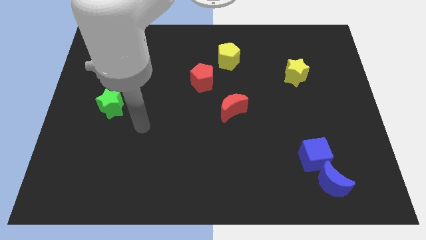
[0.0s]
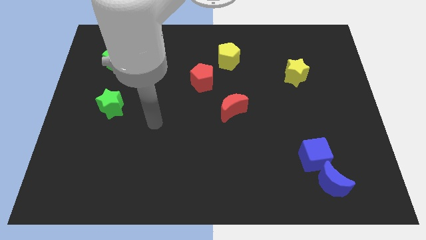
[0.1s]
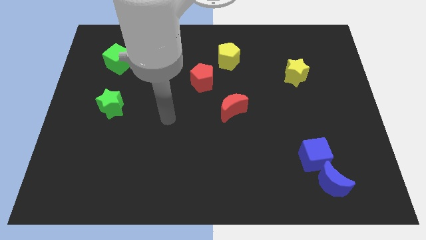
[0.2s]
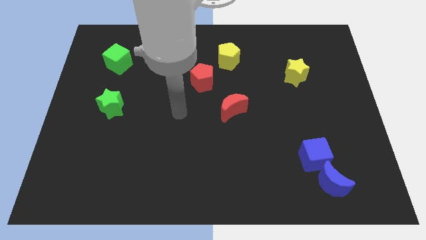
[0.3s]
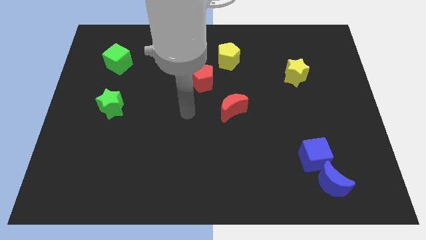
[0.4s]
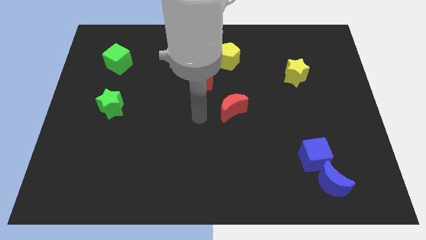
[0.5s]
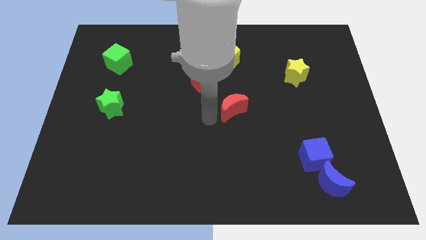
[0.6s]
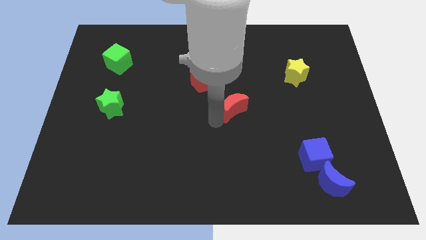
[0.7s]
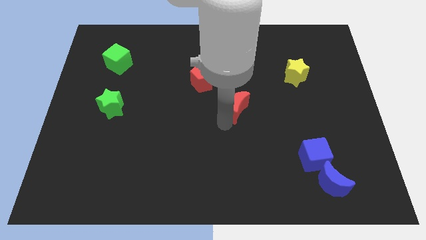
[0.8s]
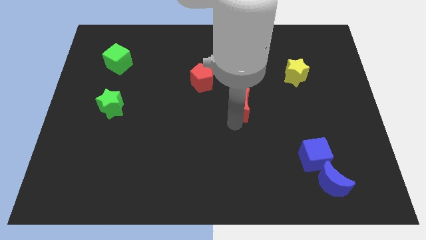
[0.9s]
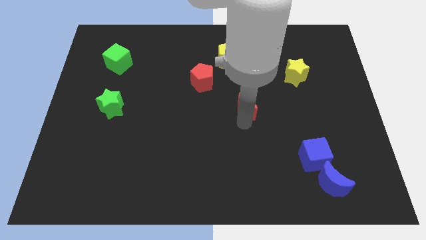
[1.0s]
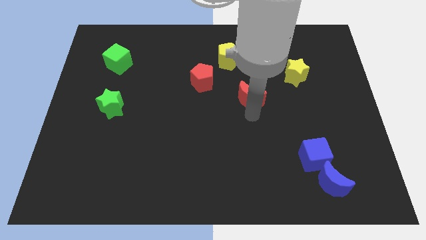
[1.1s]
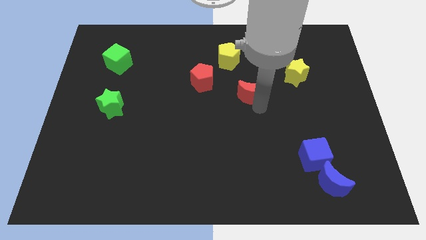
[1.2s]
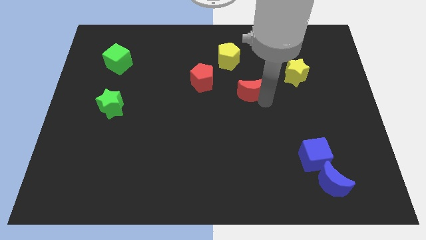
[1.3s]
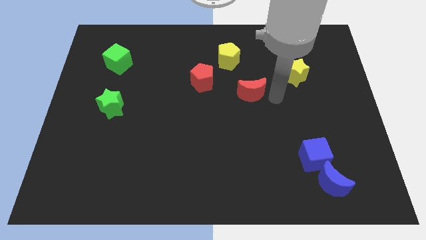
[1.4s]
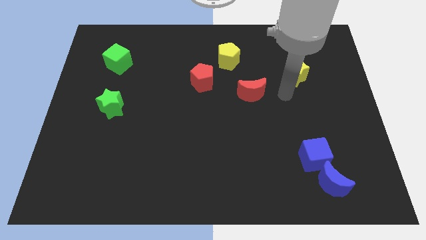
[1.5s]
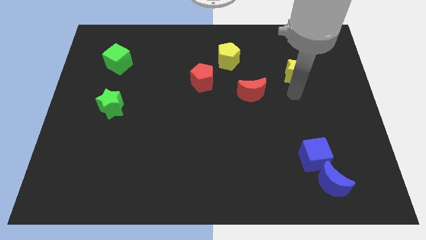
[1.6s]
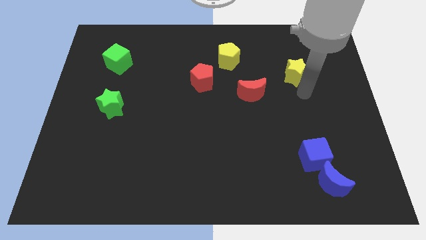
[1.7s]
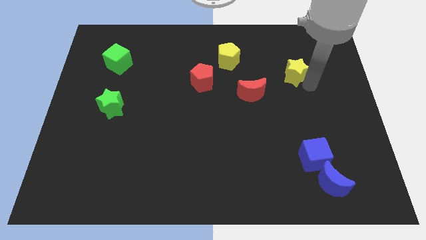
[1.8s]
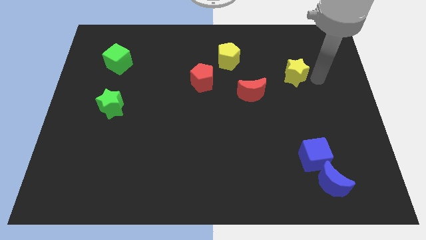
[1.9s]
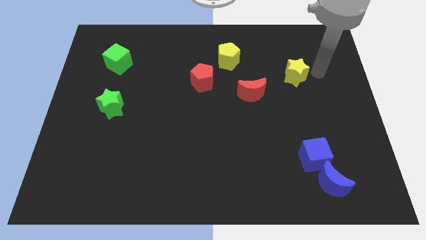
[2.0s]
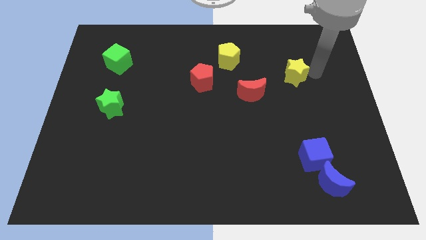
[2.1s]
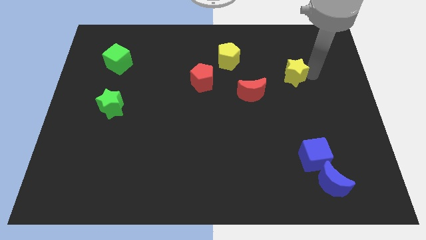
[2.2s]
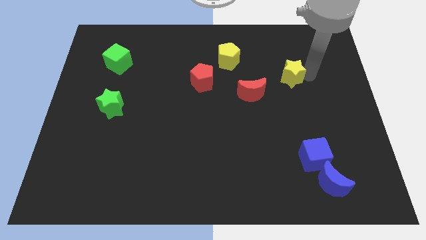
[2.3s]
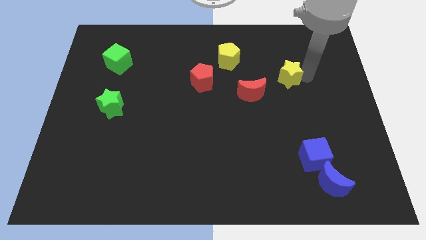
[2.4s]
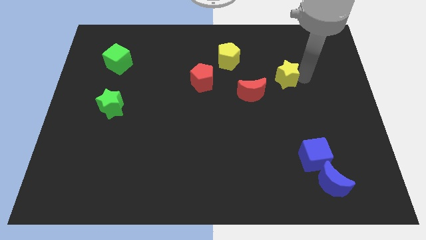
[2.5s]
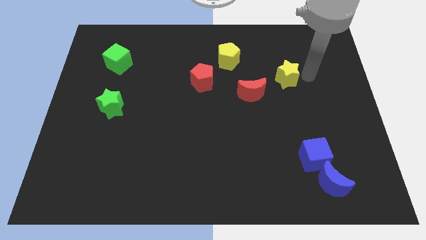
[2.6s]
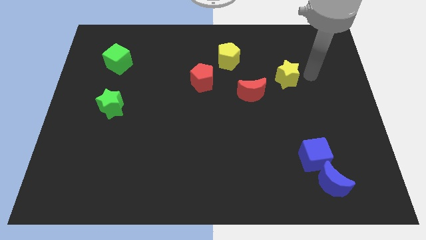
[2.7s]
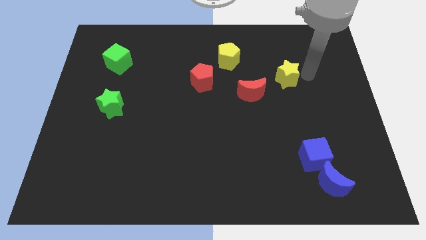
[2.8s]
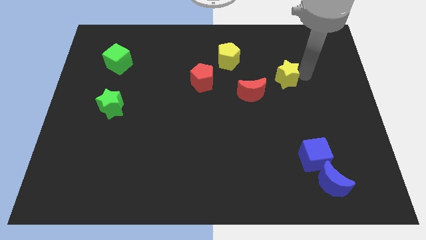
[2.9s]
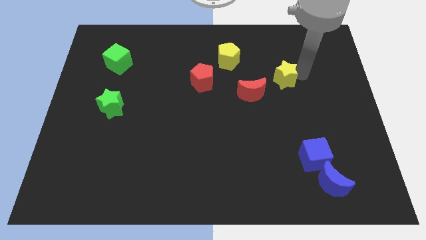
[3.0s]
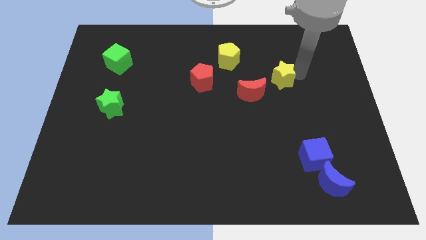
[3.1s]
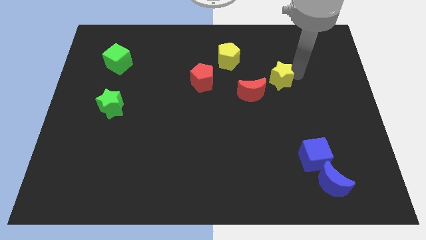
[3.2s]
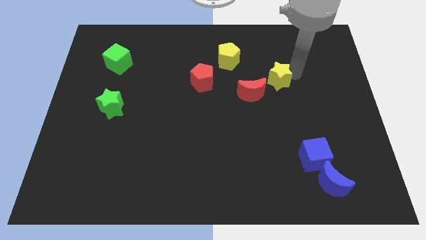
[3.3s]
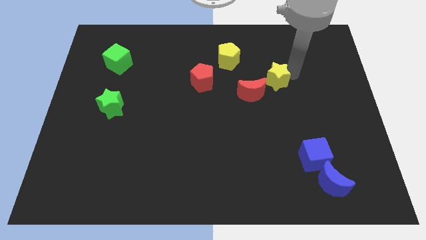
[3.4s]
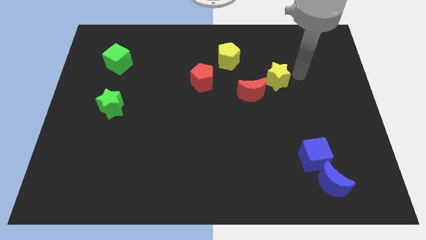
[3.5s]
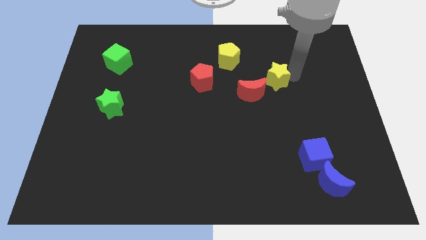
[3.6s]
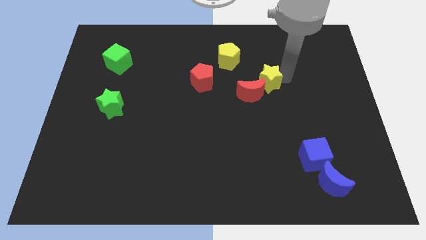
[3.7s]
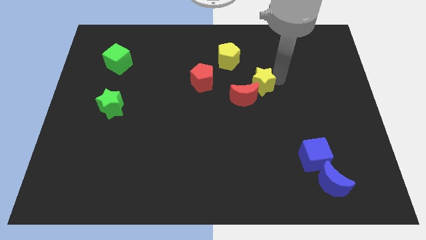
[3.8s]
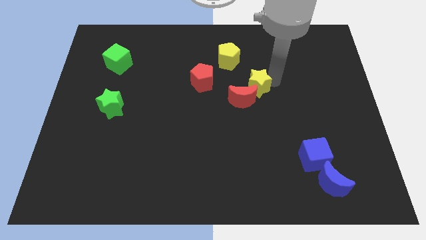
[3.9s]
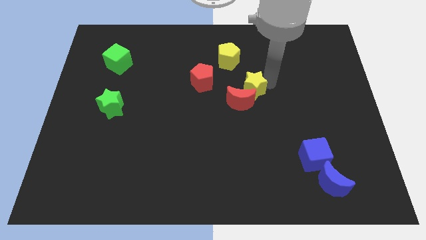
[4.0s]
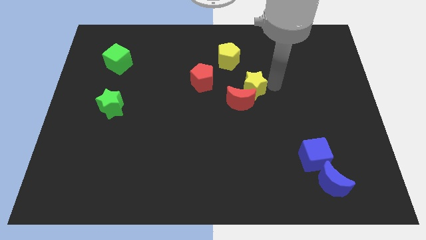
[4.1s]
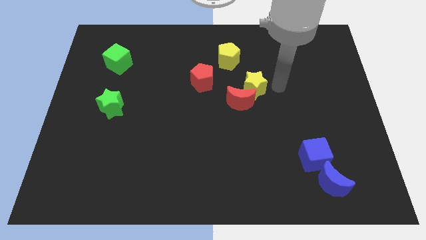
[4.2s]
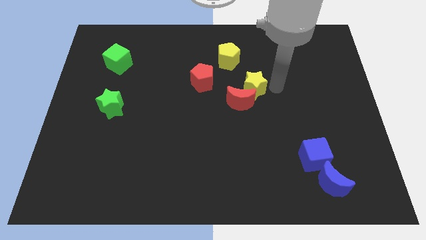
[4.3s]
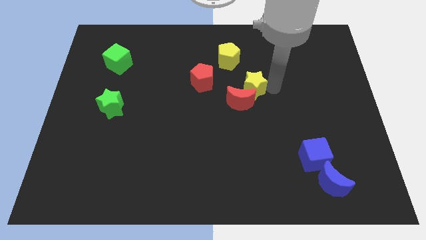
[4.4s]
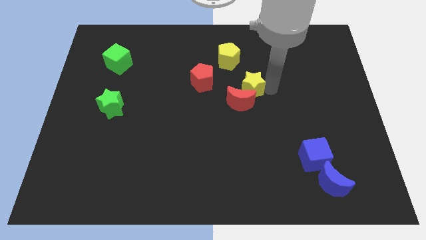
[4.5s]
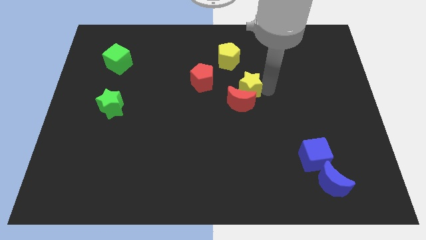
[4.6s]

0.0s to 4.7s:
put the yellow star below the yellow pentagon

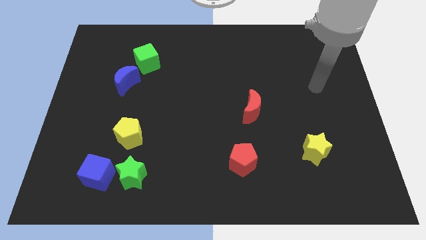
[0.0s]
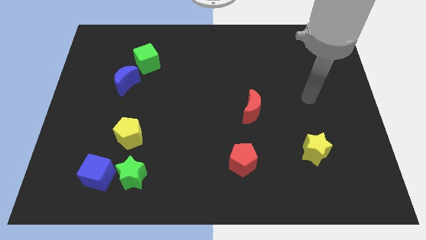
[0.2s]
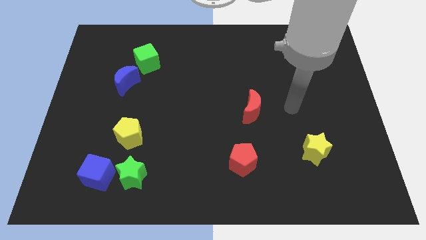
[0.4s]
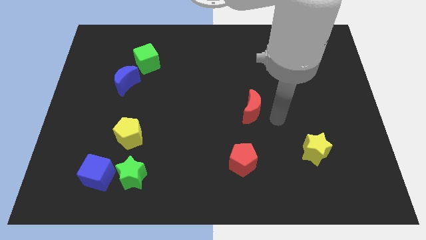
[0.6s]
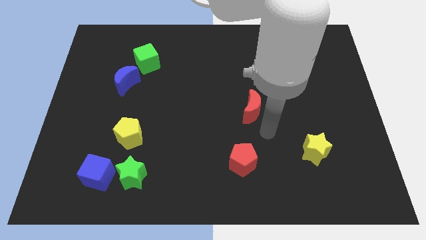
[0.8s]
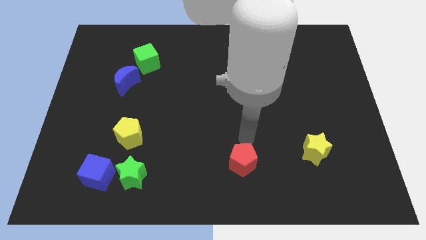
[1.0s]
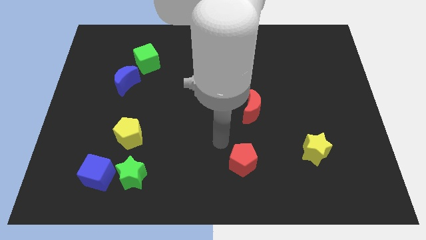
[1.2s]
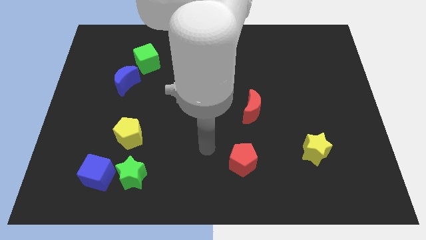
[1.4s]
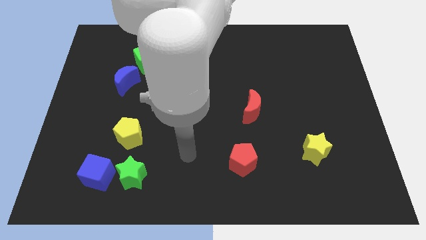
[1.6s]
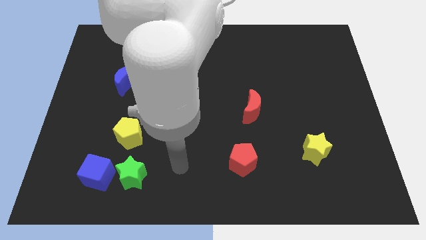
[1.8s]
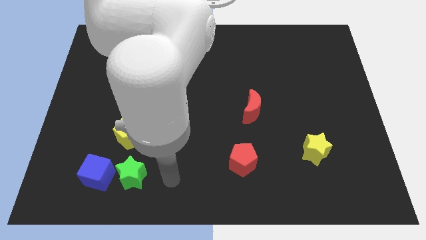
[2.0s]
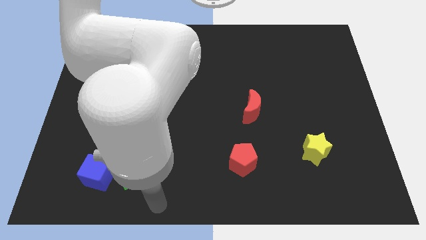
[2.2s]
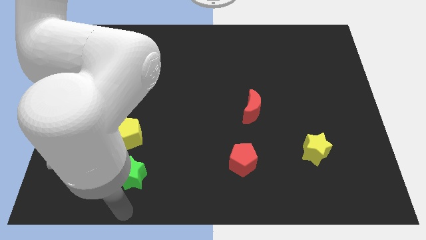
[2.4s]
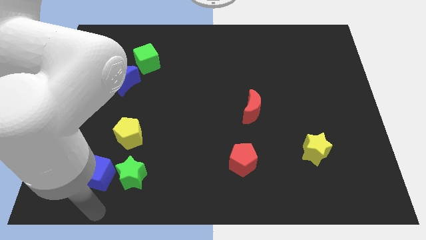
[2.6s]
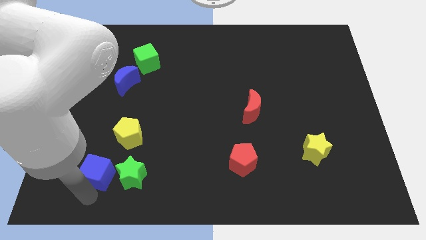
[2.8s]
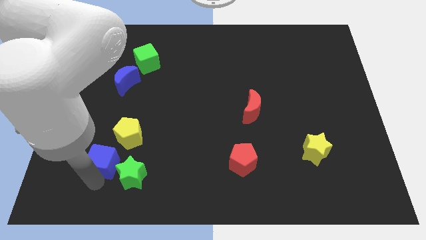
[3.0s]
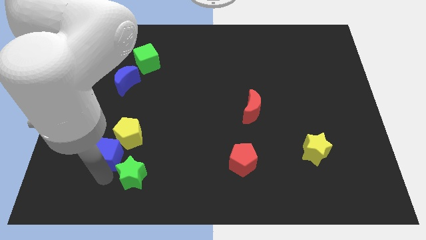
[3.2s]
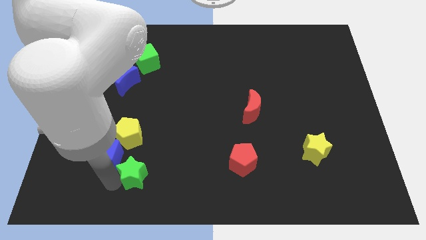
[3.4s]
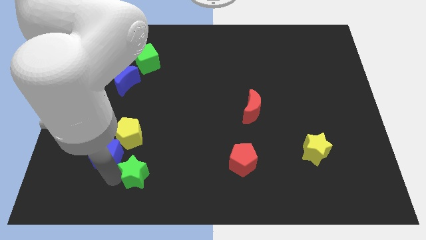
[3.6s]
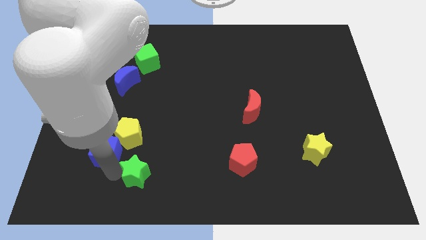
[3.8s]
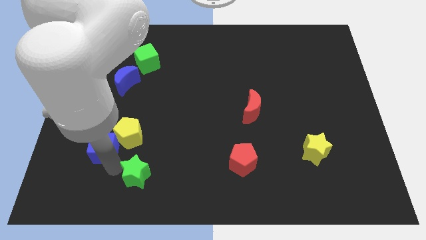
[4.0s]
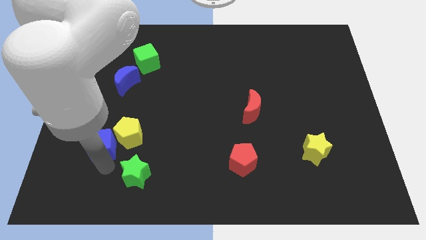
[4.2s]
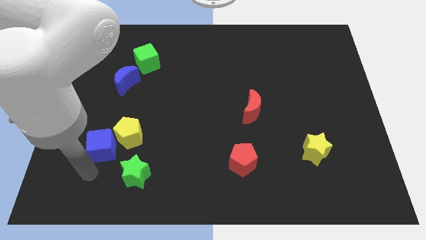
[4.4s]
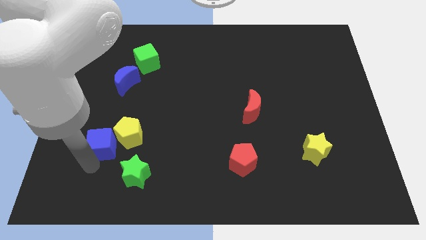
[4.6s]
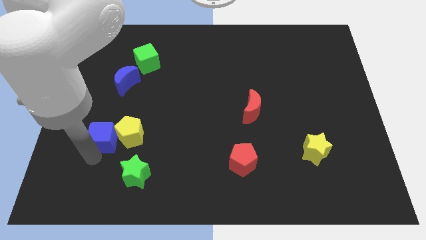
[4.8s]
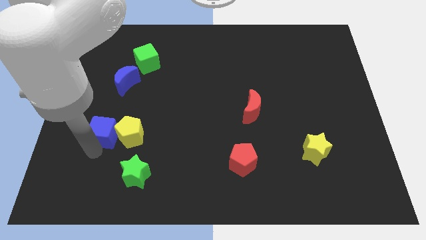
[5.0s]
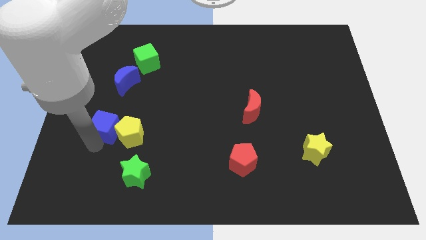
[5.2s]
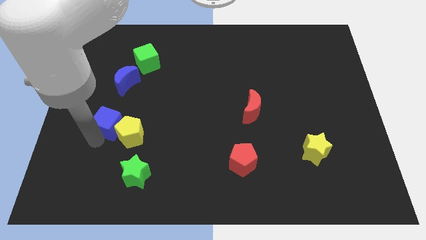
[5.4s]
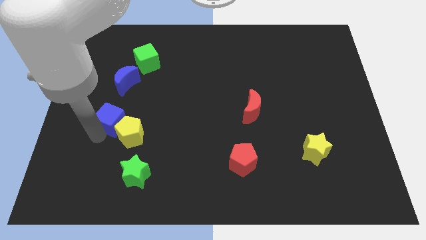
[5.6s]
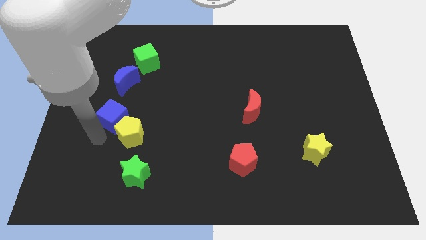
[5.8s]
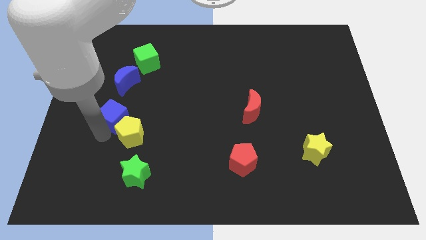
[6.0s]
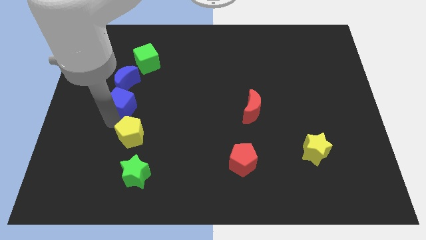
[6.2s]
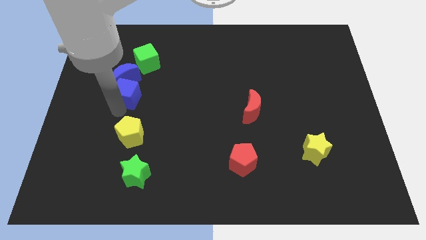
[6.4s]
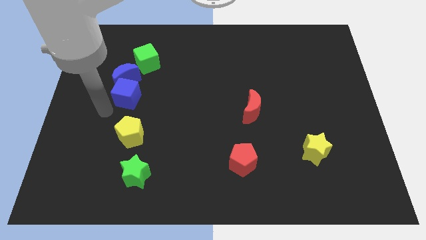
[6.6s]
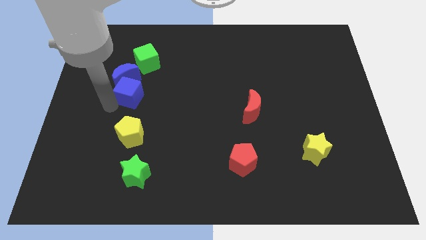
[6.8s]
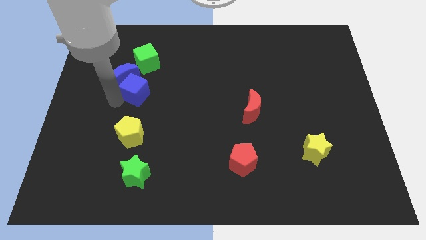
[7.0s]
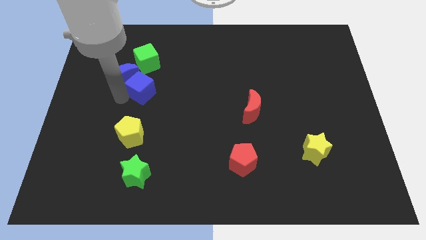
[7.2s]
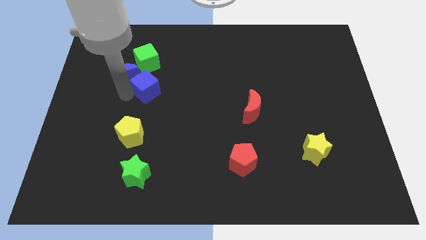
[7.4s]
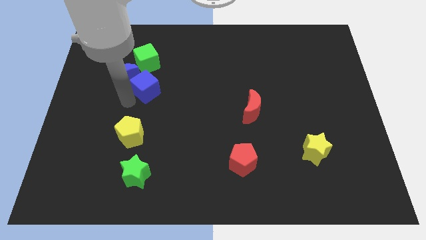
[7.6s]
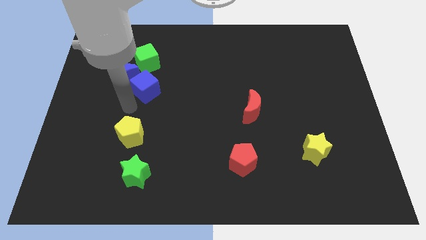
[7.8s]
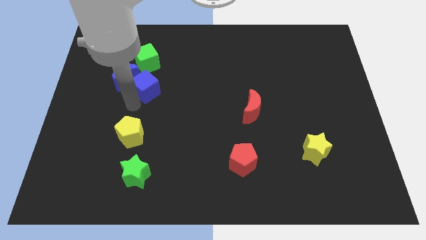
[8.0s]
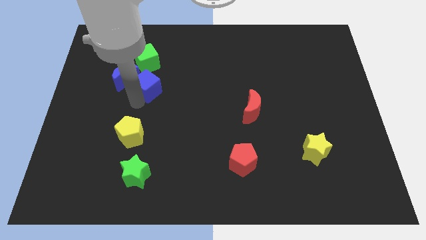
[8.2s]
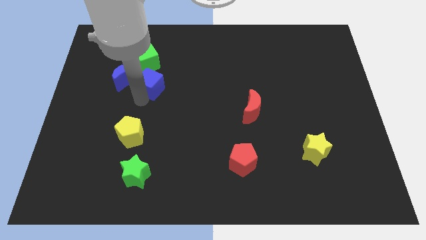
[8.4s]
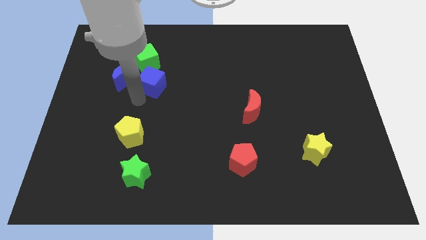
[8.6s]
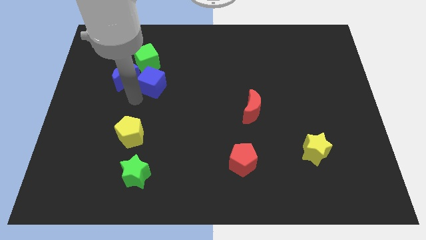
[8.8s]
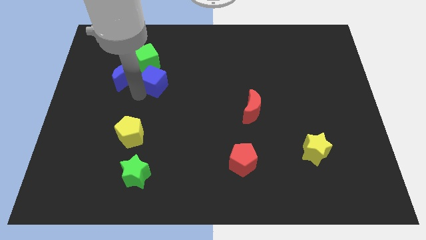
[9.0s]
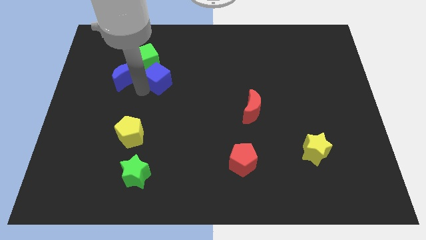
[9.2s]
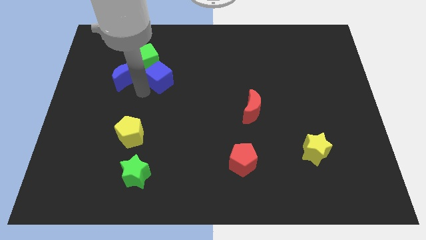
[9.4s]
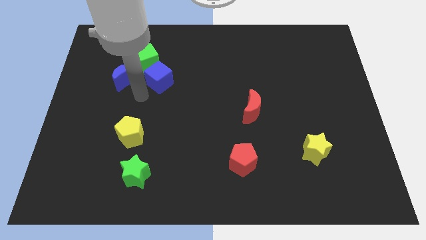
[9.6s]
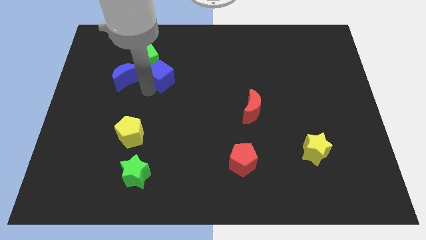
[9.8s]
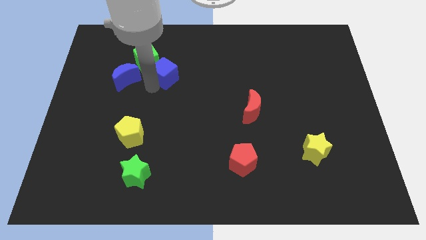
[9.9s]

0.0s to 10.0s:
push the blue cube to the right of the green cube
